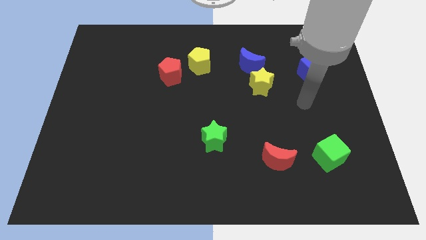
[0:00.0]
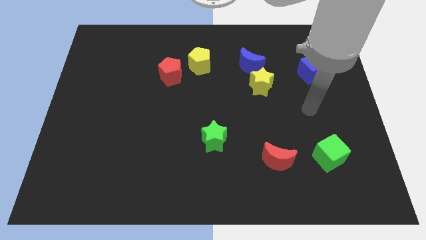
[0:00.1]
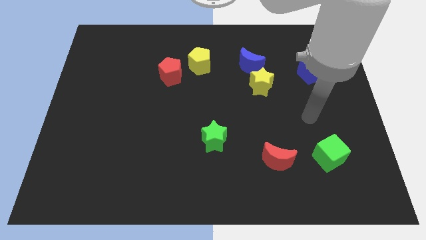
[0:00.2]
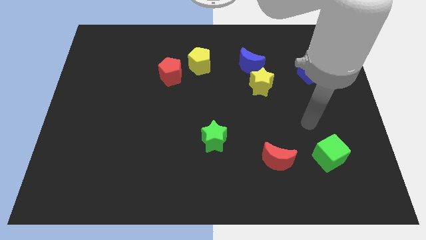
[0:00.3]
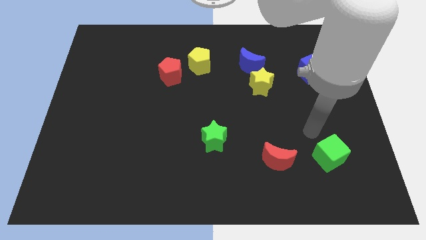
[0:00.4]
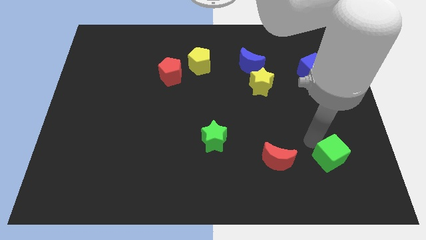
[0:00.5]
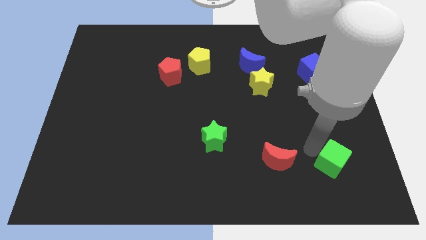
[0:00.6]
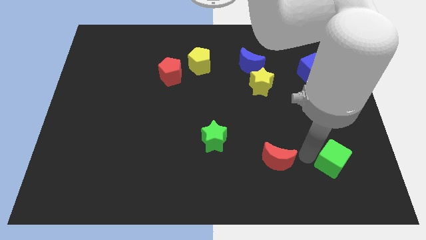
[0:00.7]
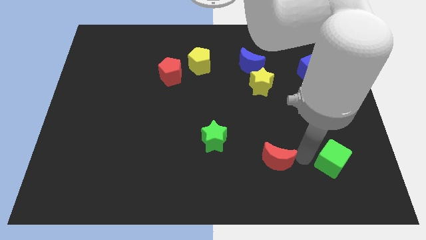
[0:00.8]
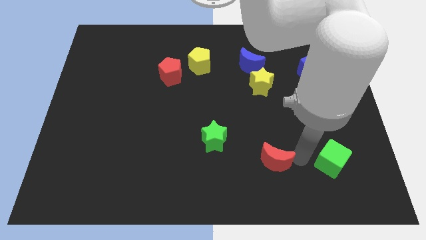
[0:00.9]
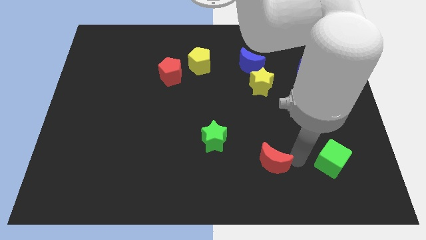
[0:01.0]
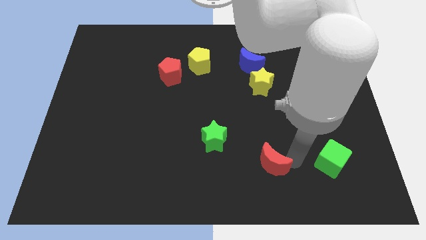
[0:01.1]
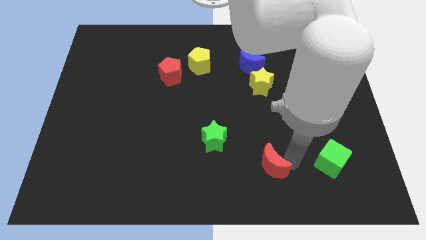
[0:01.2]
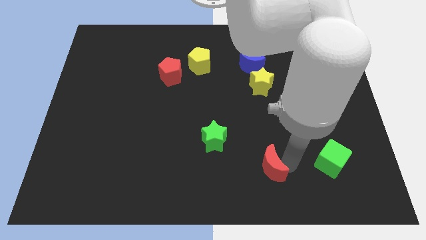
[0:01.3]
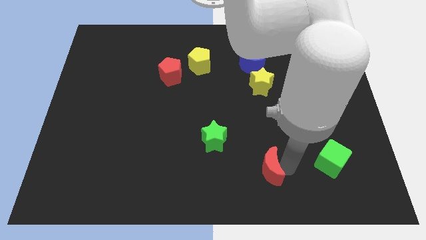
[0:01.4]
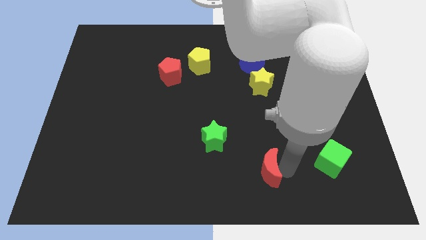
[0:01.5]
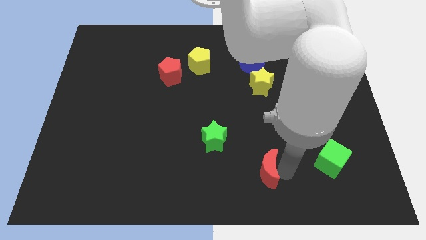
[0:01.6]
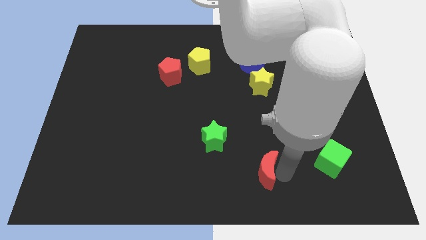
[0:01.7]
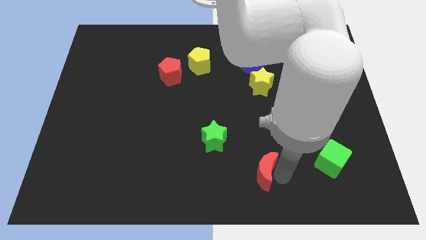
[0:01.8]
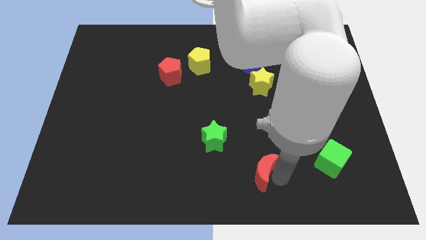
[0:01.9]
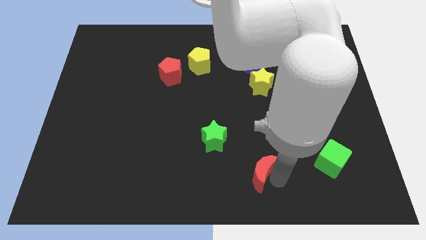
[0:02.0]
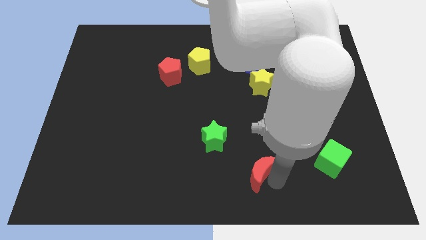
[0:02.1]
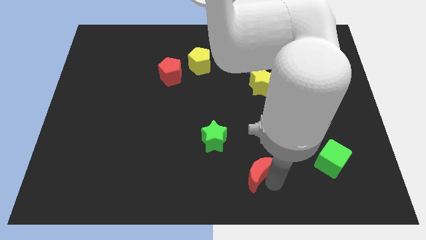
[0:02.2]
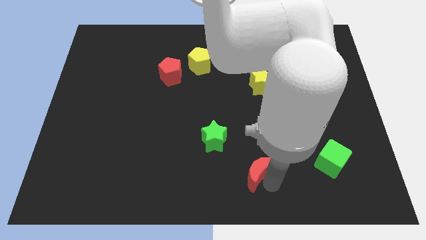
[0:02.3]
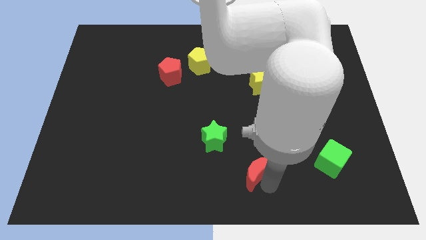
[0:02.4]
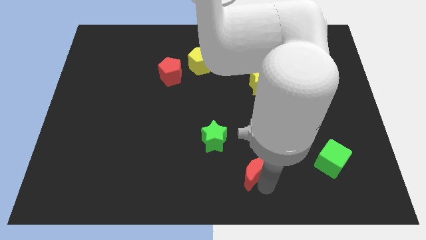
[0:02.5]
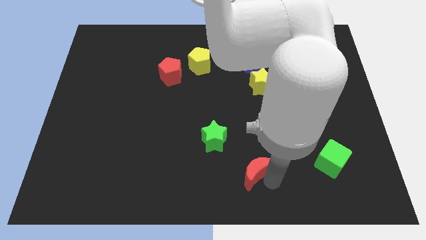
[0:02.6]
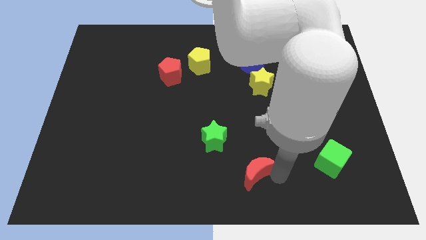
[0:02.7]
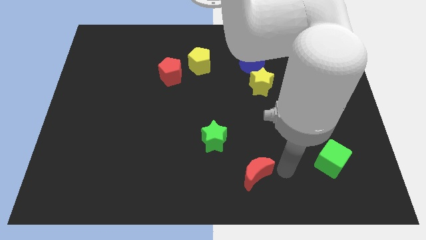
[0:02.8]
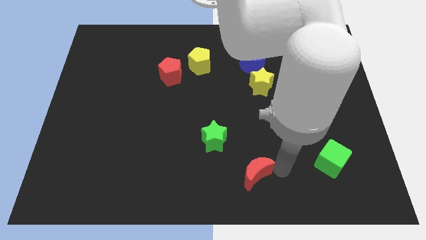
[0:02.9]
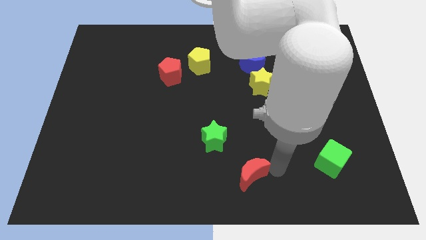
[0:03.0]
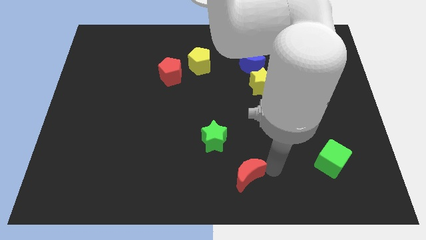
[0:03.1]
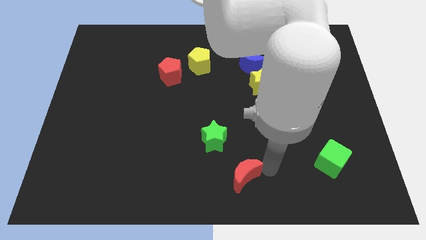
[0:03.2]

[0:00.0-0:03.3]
slide the red moon to the left a little

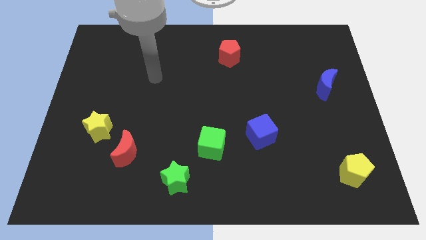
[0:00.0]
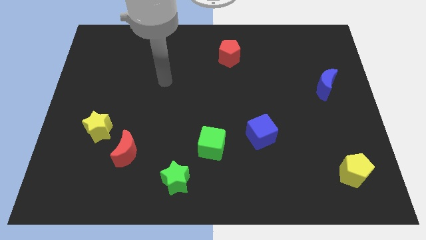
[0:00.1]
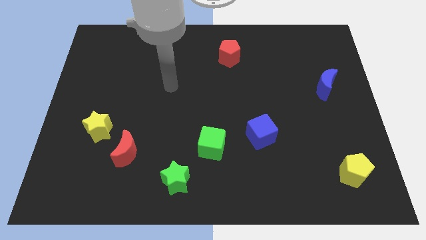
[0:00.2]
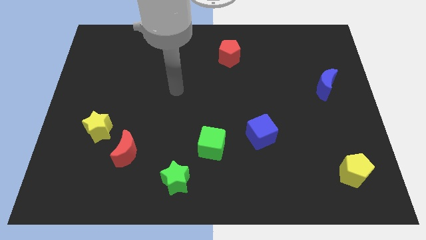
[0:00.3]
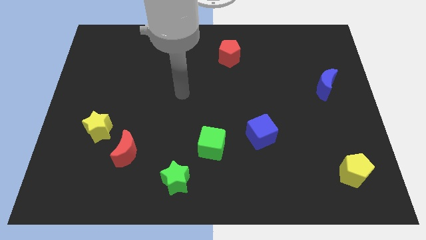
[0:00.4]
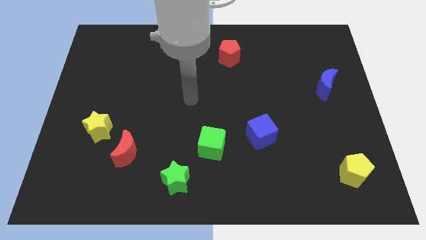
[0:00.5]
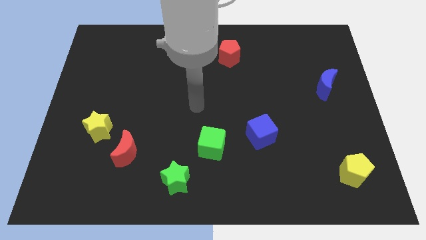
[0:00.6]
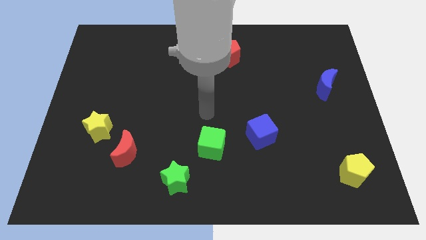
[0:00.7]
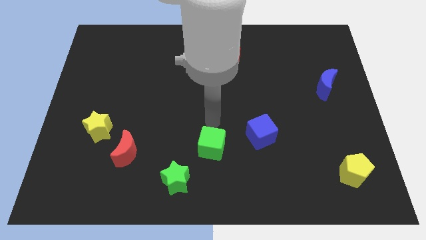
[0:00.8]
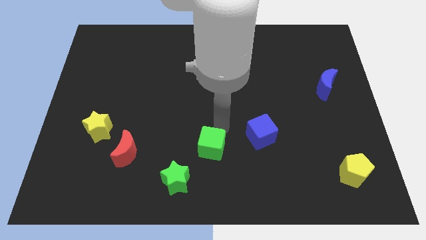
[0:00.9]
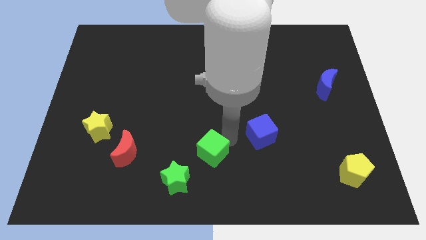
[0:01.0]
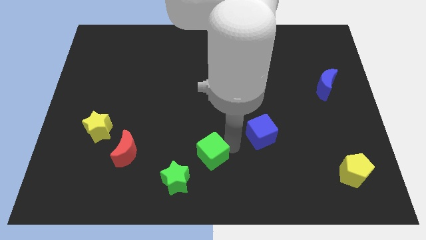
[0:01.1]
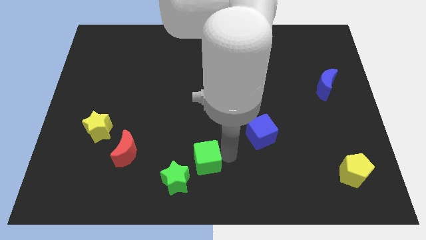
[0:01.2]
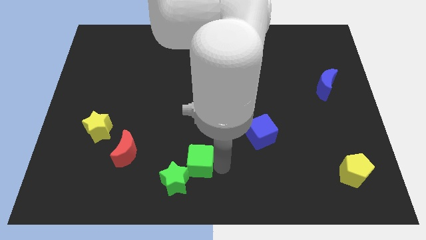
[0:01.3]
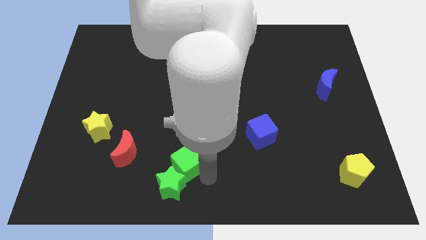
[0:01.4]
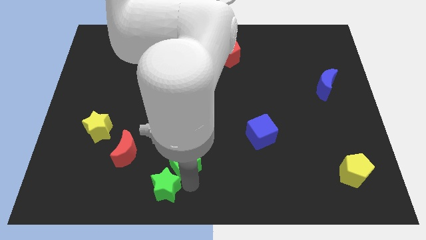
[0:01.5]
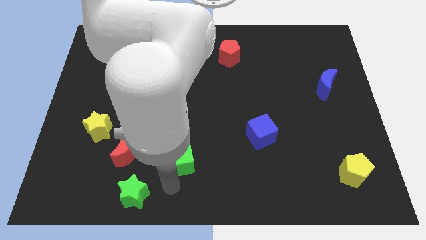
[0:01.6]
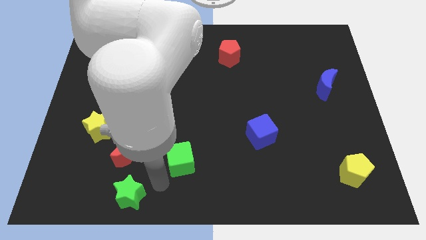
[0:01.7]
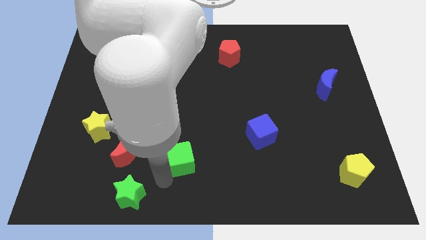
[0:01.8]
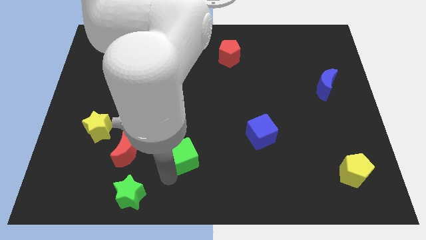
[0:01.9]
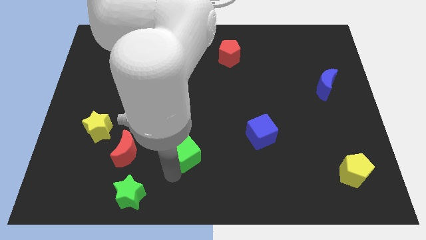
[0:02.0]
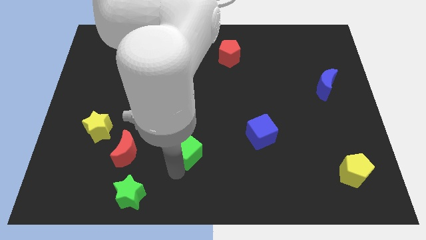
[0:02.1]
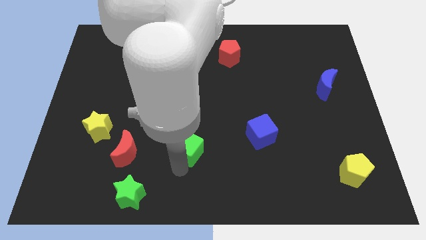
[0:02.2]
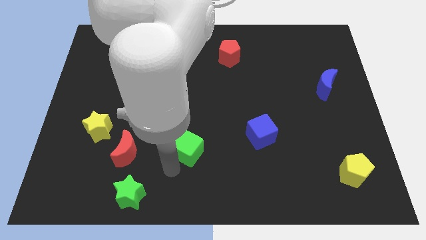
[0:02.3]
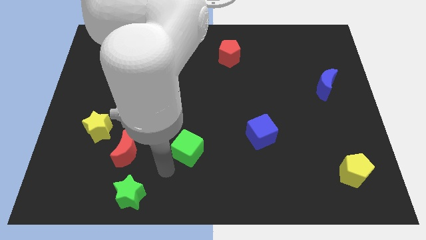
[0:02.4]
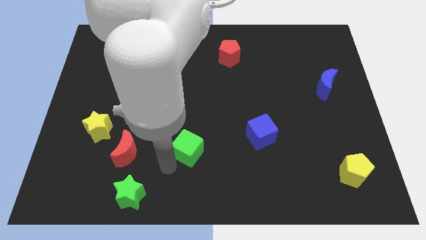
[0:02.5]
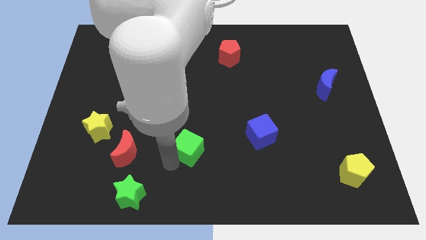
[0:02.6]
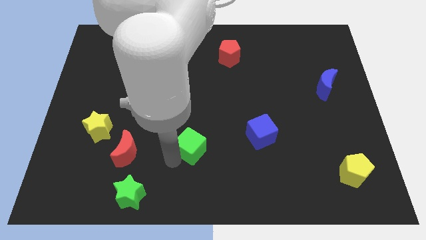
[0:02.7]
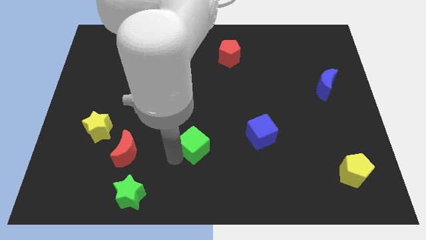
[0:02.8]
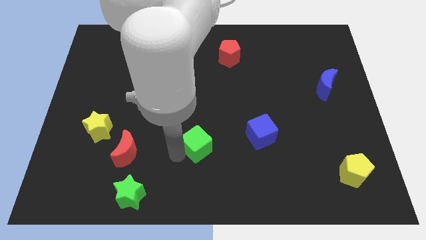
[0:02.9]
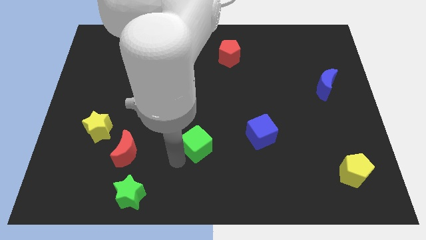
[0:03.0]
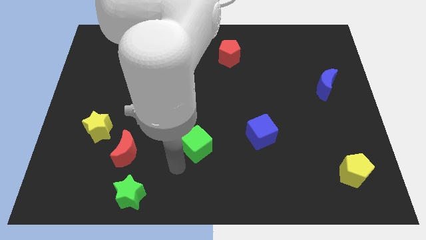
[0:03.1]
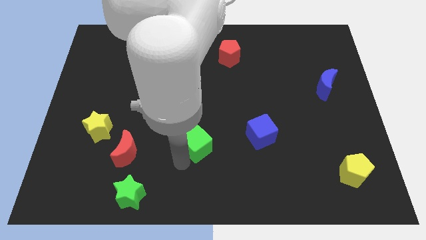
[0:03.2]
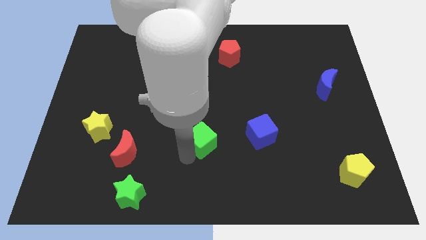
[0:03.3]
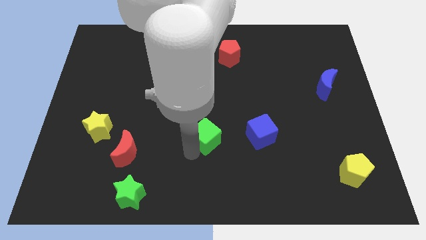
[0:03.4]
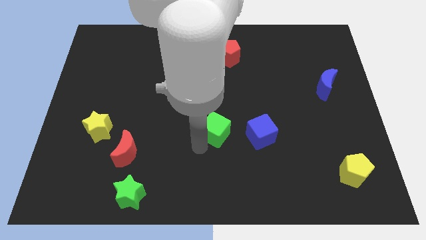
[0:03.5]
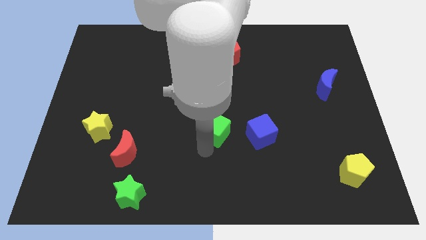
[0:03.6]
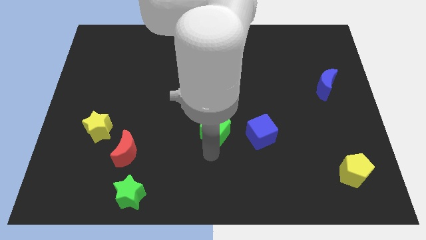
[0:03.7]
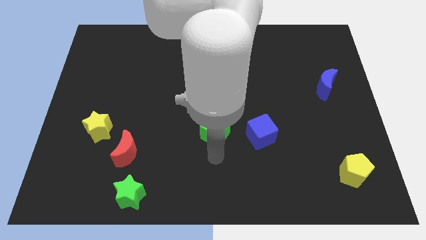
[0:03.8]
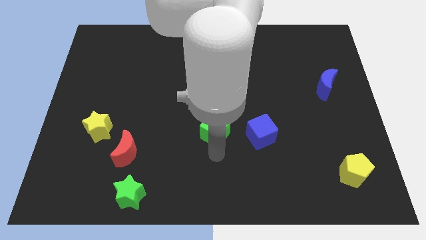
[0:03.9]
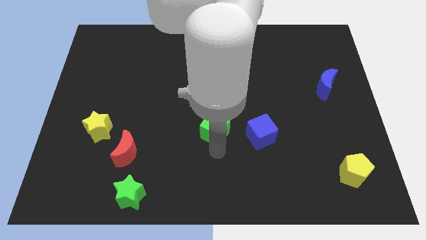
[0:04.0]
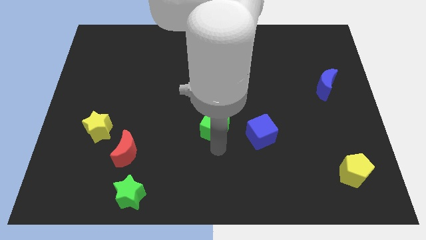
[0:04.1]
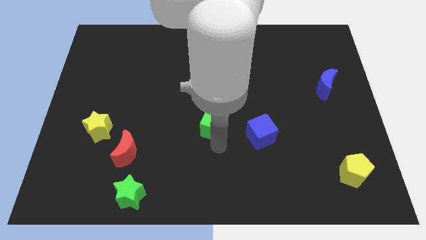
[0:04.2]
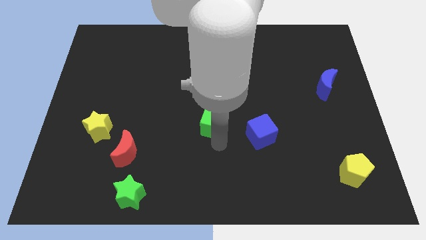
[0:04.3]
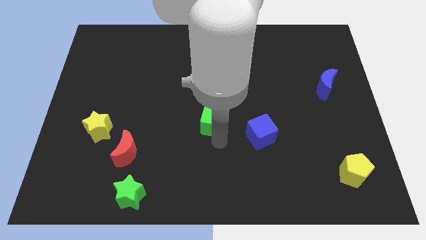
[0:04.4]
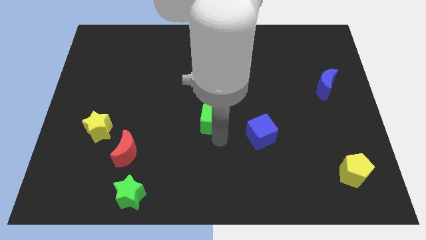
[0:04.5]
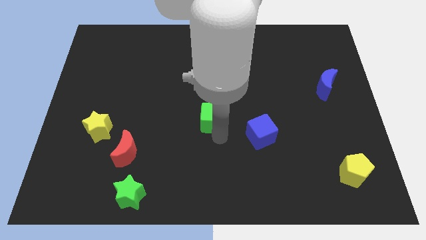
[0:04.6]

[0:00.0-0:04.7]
slightly push the green cube upwards

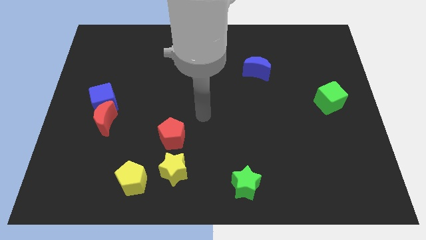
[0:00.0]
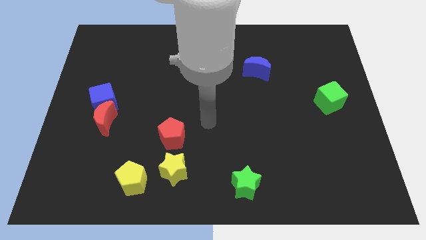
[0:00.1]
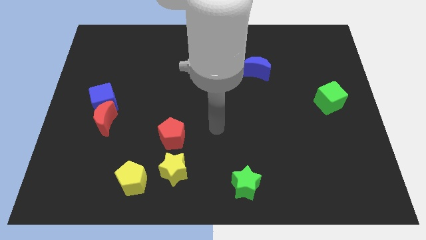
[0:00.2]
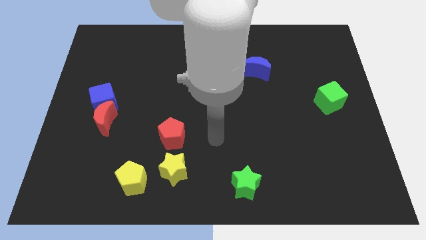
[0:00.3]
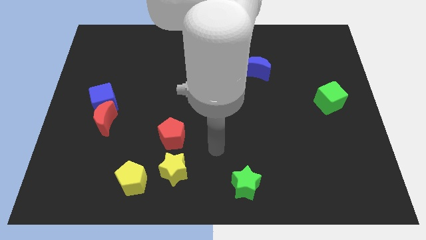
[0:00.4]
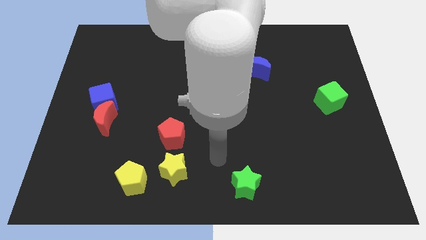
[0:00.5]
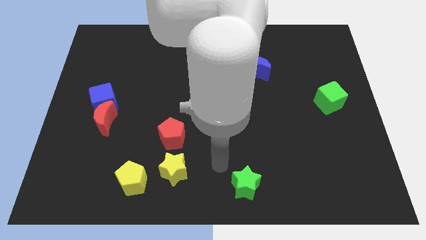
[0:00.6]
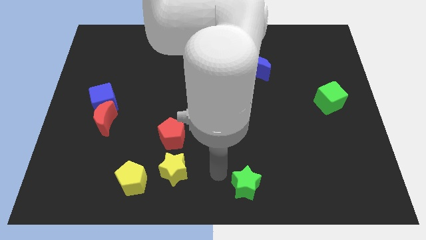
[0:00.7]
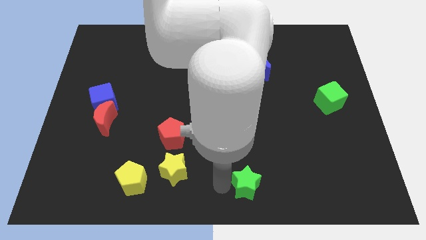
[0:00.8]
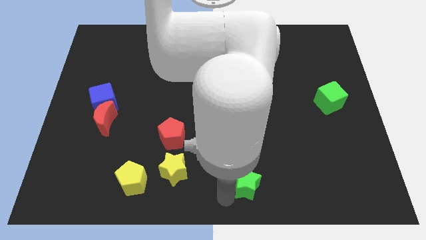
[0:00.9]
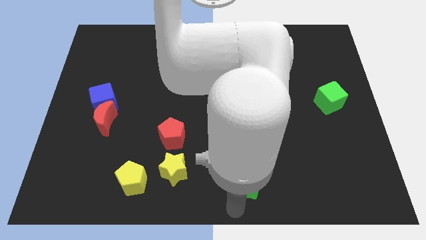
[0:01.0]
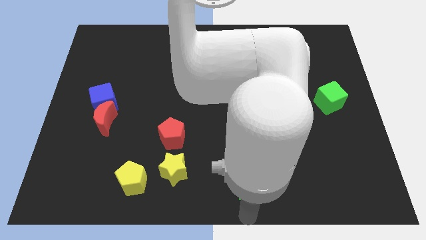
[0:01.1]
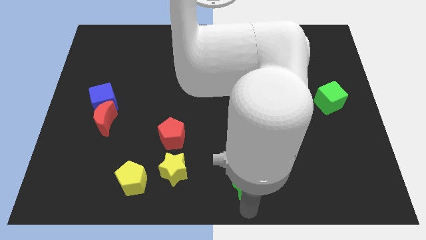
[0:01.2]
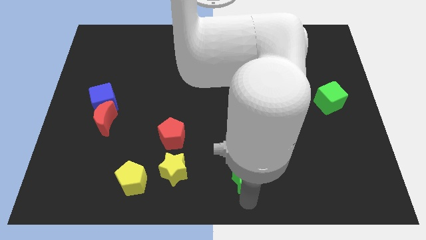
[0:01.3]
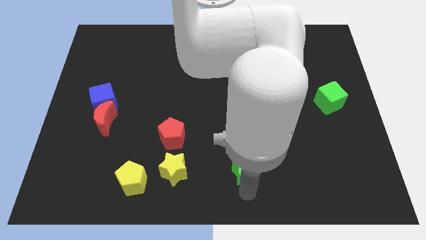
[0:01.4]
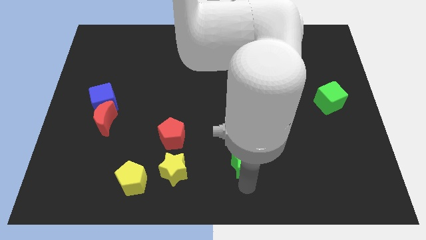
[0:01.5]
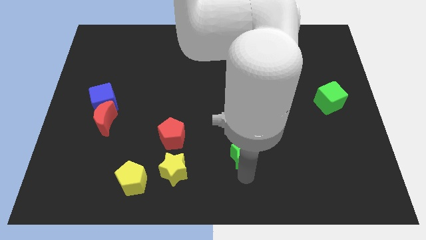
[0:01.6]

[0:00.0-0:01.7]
push the green star up somewhat
